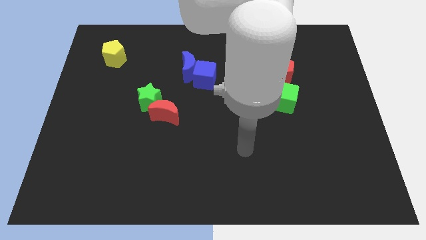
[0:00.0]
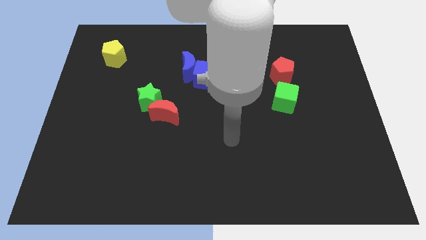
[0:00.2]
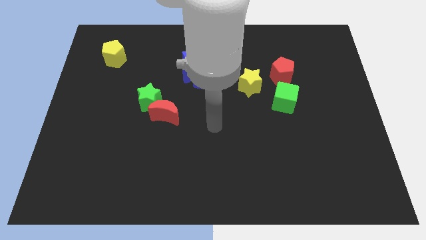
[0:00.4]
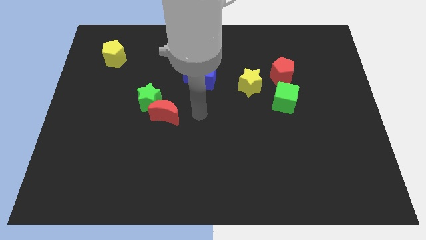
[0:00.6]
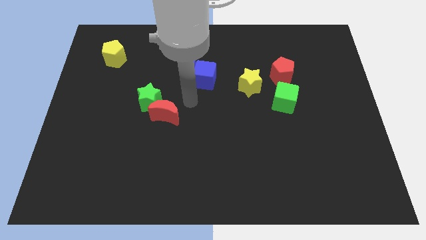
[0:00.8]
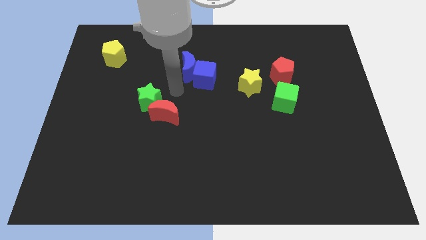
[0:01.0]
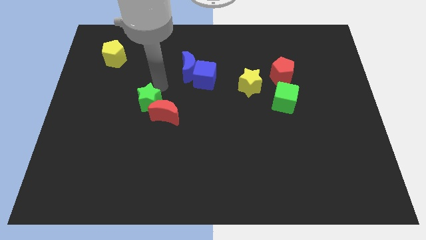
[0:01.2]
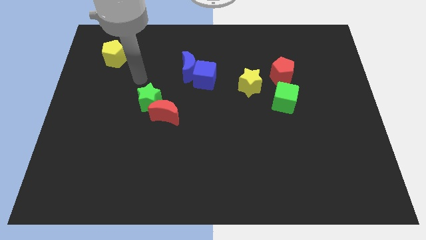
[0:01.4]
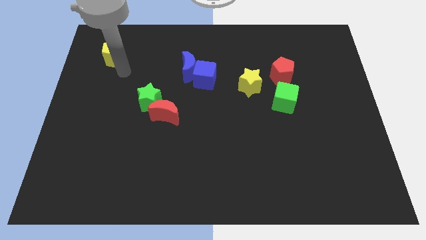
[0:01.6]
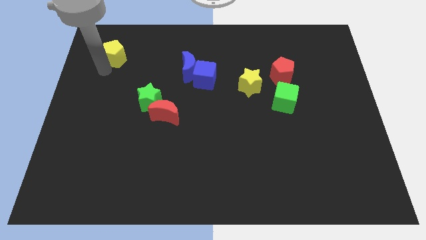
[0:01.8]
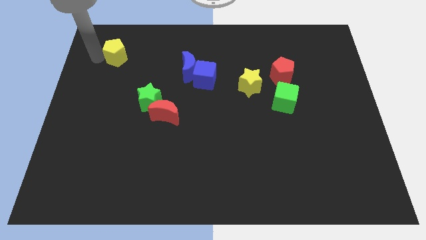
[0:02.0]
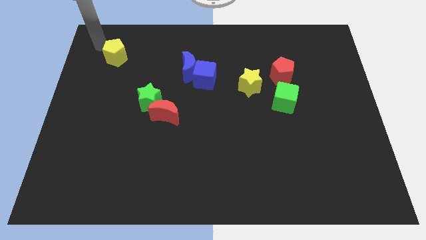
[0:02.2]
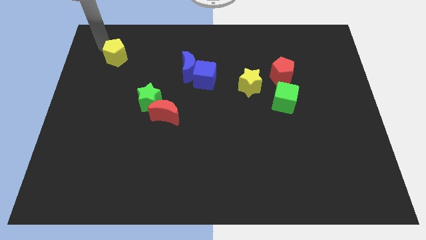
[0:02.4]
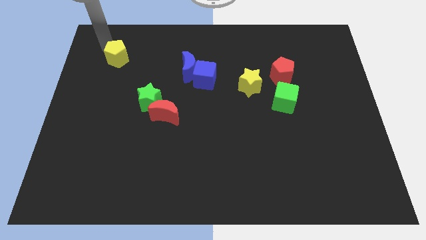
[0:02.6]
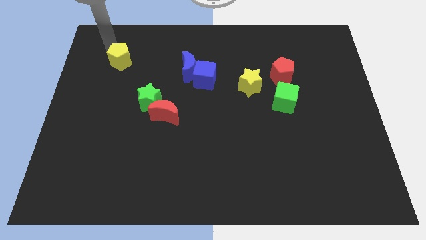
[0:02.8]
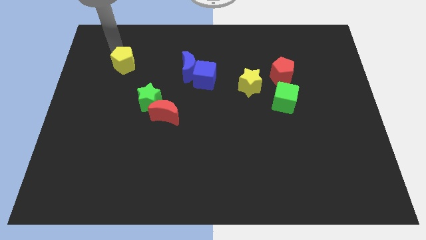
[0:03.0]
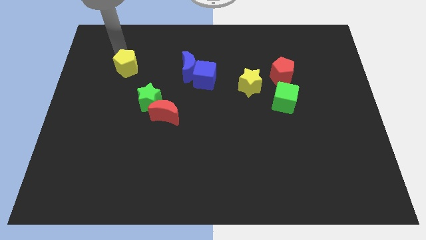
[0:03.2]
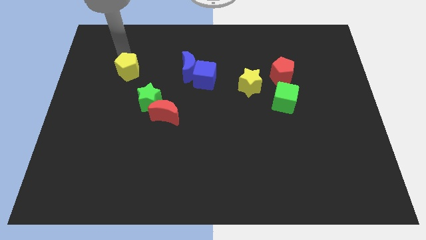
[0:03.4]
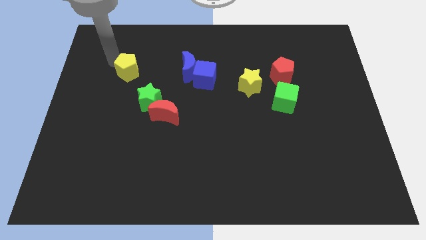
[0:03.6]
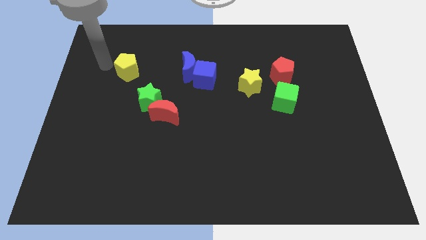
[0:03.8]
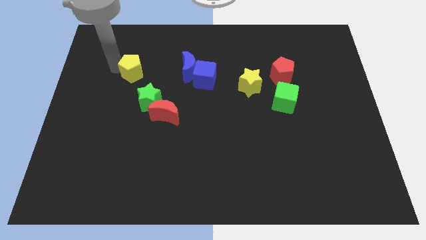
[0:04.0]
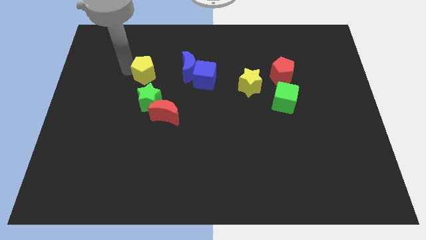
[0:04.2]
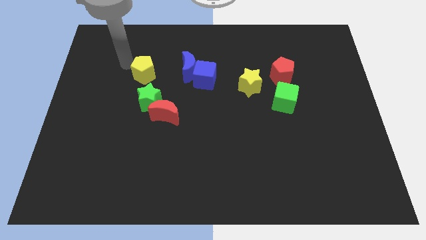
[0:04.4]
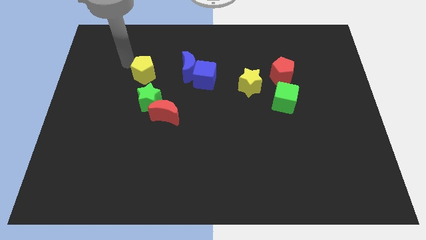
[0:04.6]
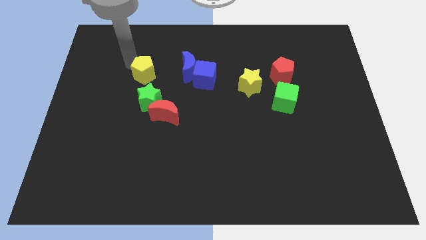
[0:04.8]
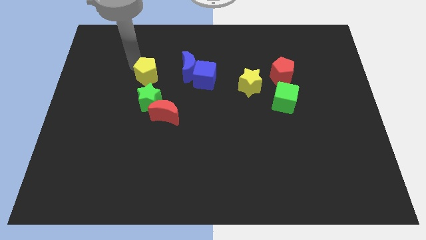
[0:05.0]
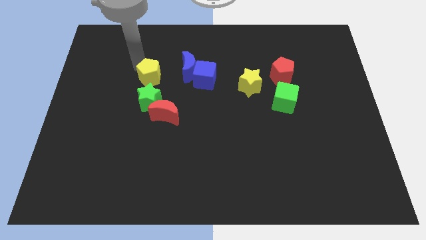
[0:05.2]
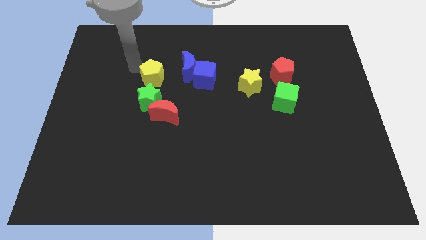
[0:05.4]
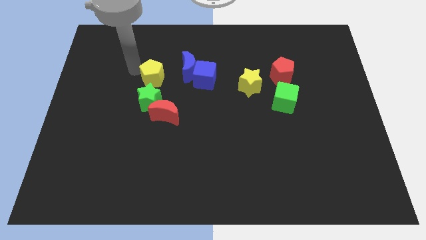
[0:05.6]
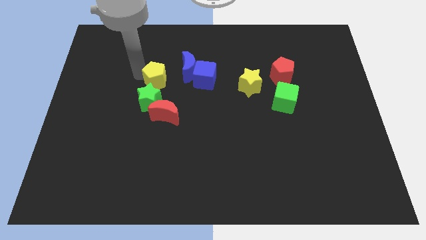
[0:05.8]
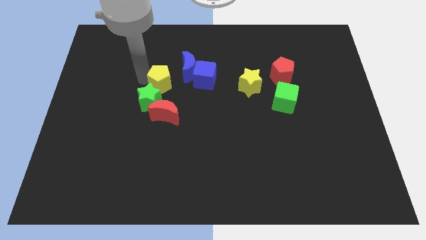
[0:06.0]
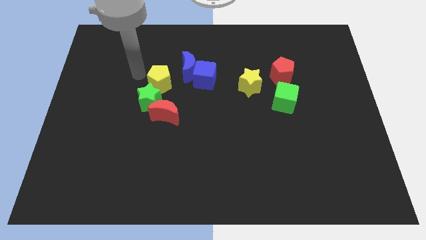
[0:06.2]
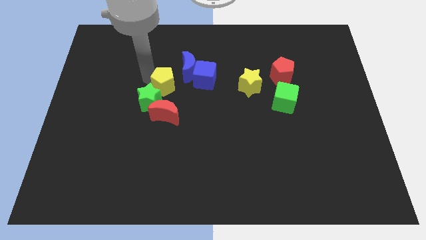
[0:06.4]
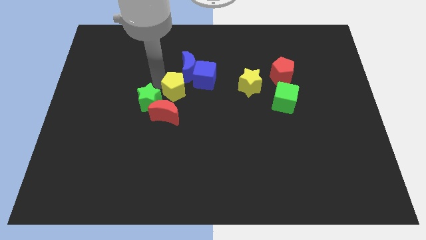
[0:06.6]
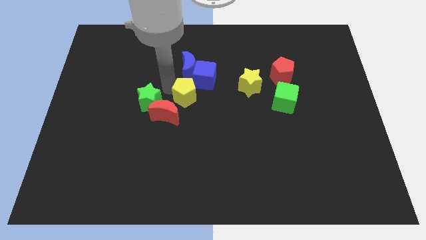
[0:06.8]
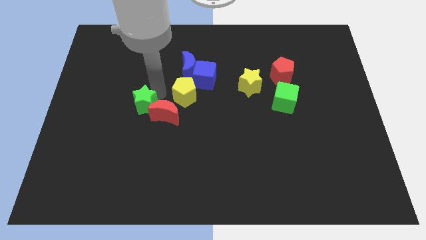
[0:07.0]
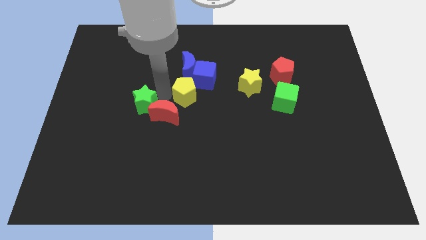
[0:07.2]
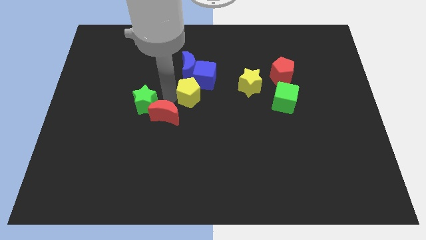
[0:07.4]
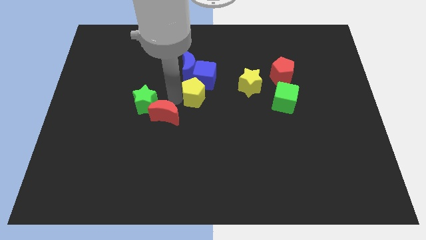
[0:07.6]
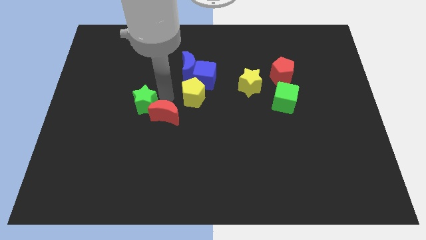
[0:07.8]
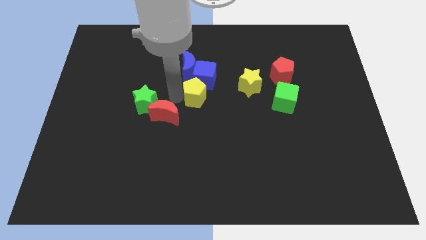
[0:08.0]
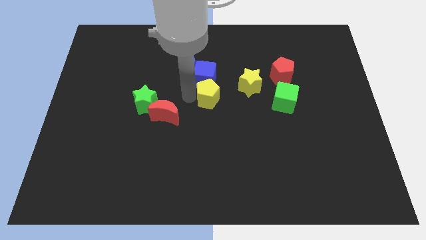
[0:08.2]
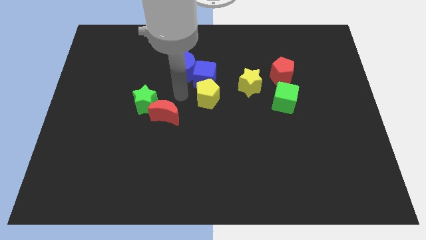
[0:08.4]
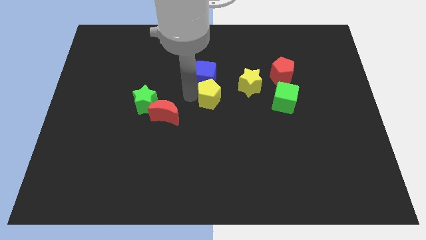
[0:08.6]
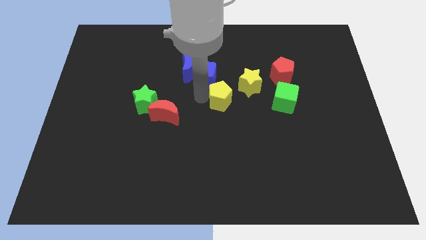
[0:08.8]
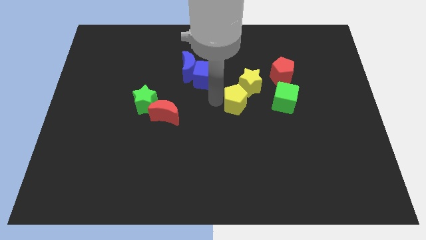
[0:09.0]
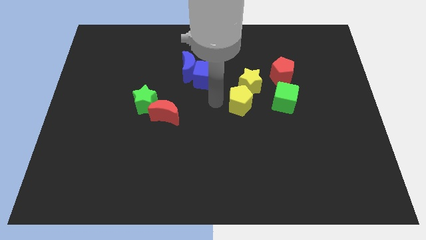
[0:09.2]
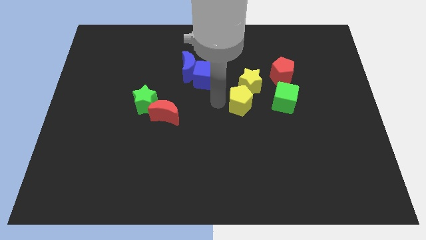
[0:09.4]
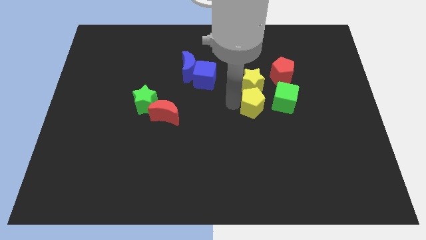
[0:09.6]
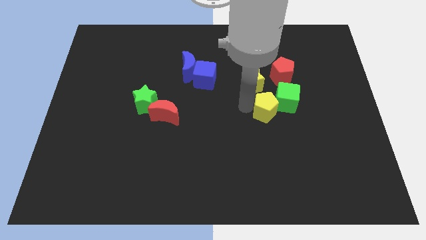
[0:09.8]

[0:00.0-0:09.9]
put the yellow pentagon close to the green cube

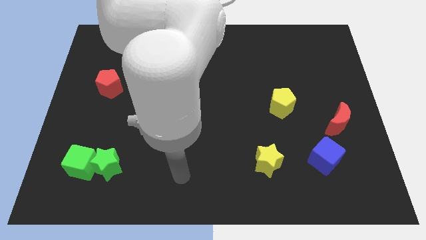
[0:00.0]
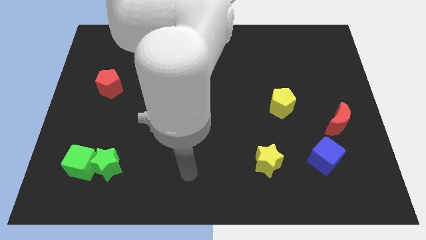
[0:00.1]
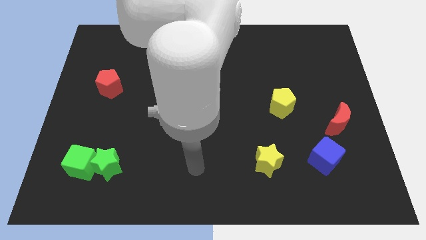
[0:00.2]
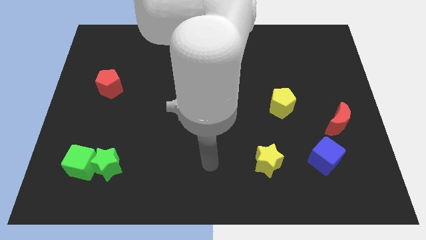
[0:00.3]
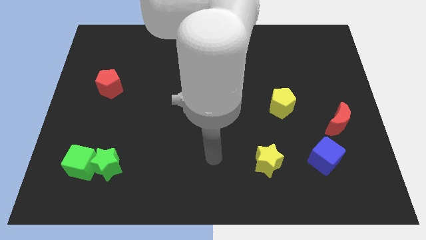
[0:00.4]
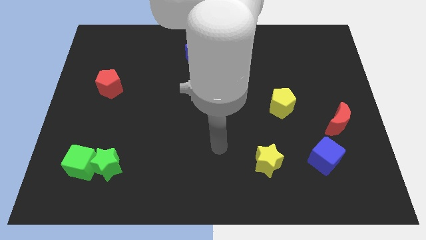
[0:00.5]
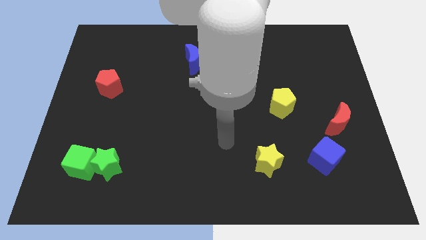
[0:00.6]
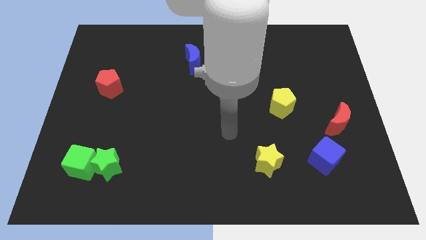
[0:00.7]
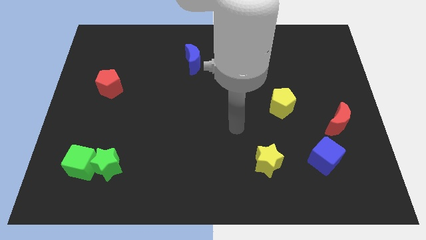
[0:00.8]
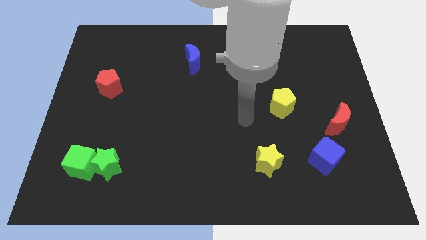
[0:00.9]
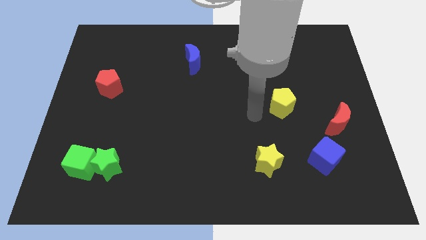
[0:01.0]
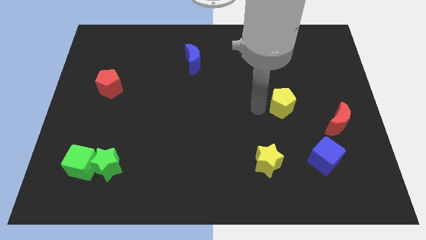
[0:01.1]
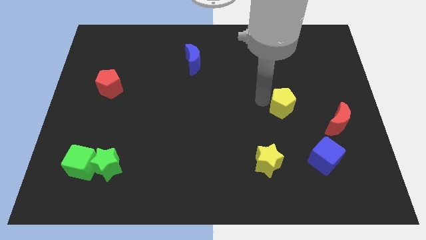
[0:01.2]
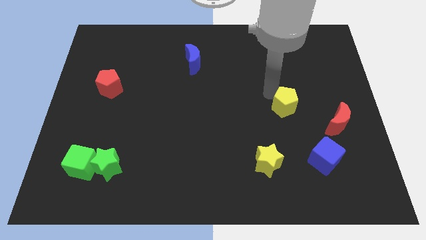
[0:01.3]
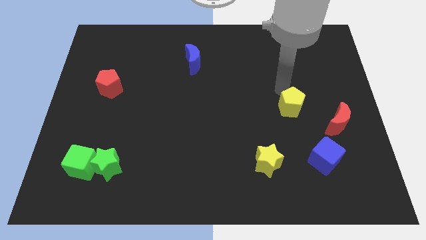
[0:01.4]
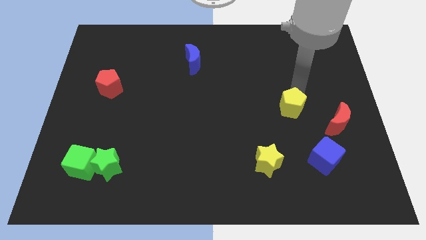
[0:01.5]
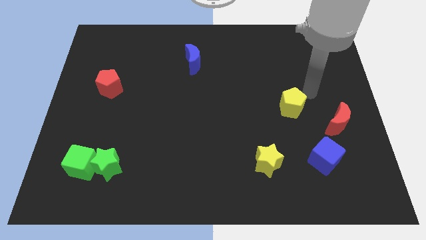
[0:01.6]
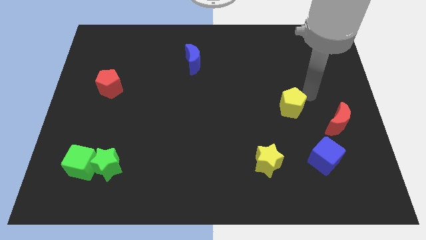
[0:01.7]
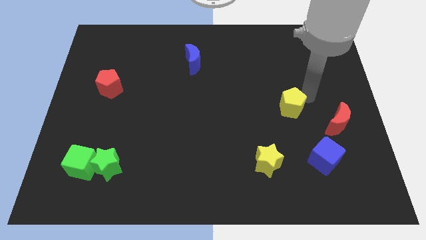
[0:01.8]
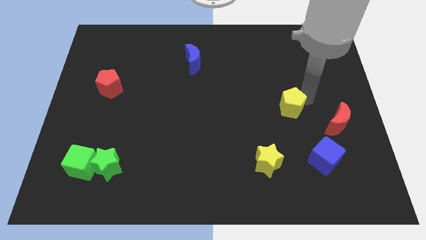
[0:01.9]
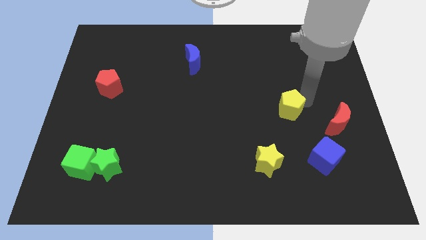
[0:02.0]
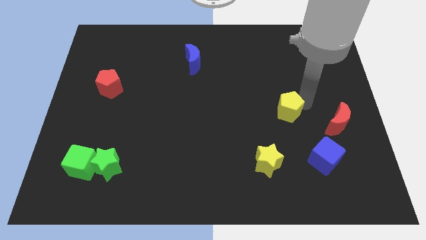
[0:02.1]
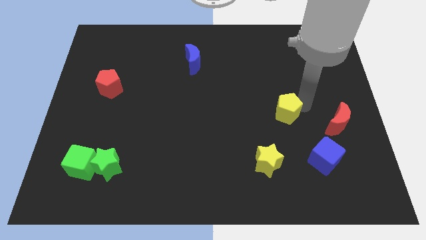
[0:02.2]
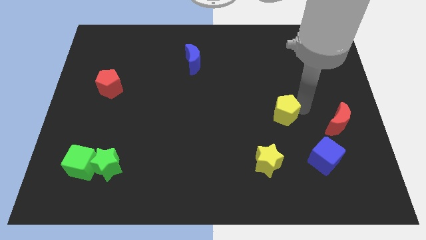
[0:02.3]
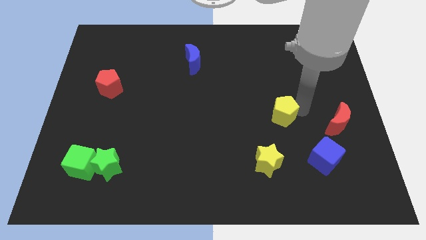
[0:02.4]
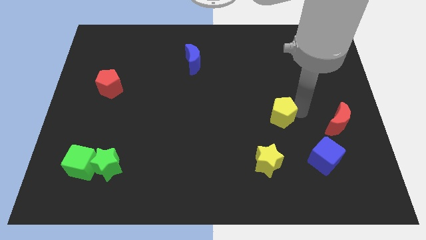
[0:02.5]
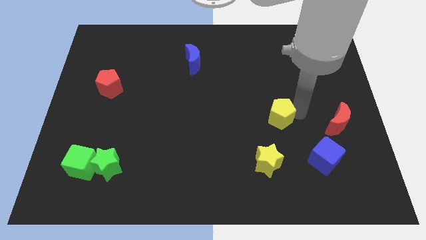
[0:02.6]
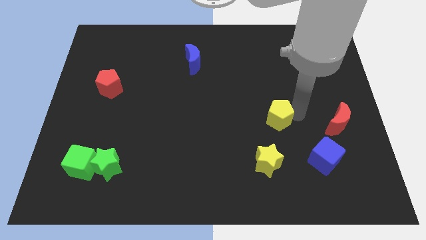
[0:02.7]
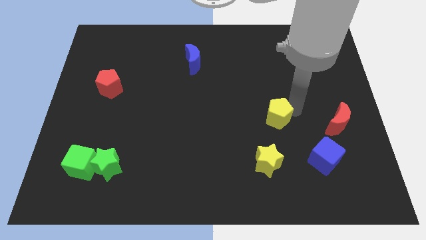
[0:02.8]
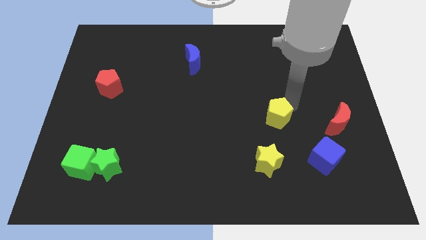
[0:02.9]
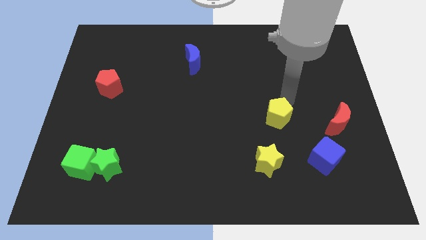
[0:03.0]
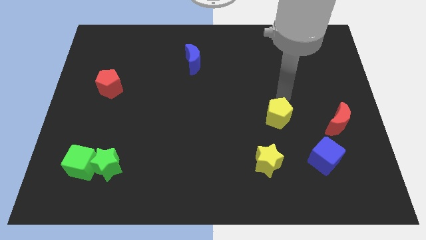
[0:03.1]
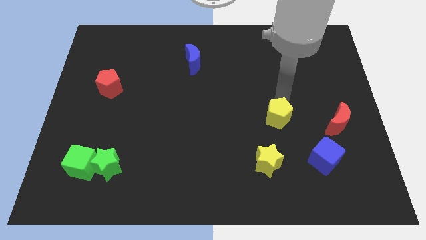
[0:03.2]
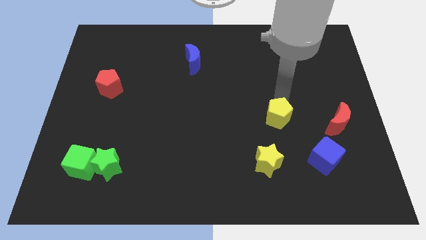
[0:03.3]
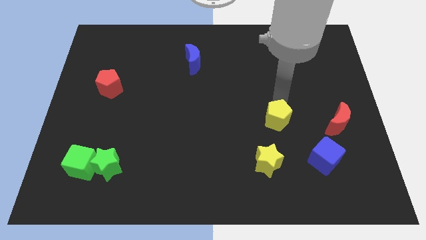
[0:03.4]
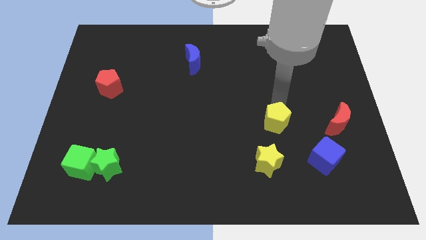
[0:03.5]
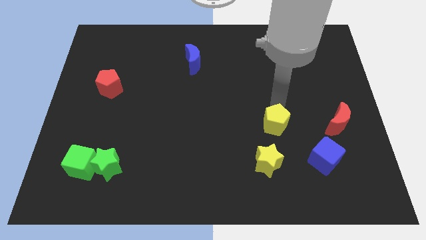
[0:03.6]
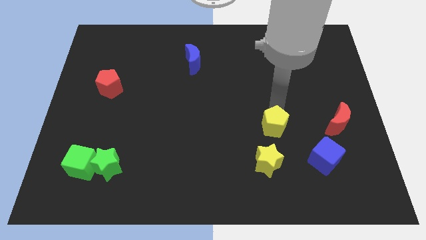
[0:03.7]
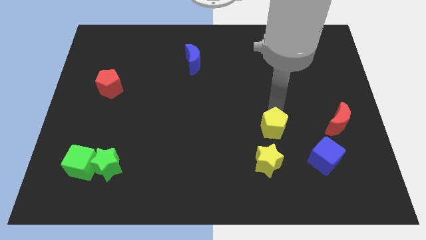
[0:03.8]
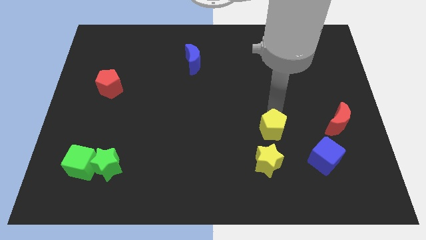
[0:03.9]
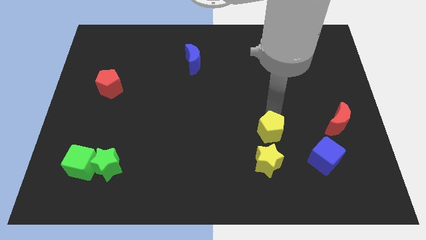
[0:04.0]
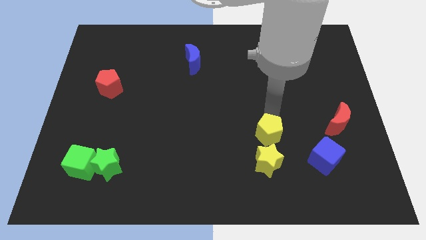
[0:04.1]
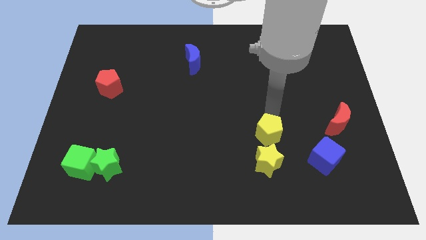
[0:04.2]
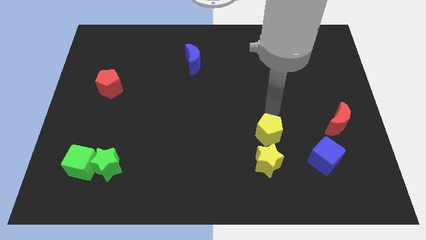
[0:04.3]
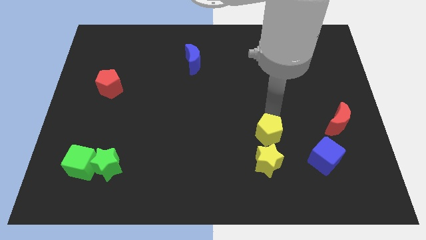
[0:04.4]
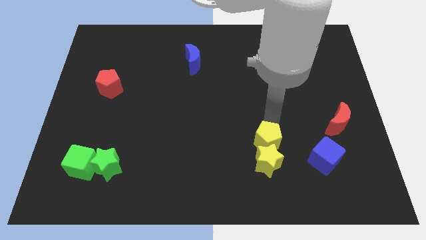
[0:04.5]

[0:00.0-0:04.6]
push the yellow pentagon towards the yellow star
